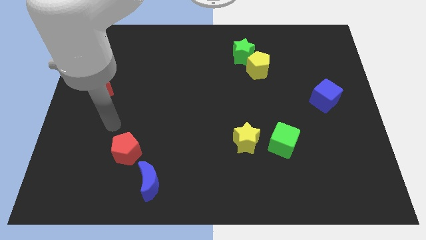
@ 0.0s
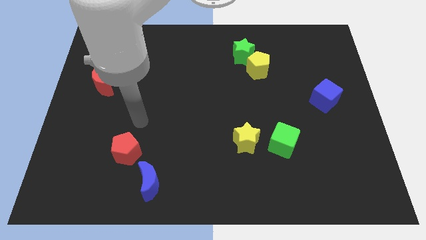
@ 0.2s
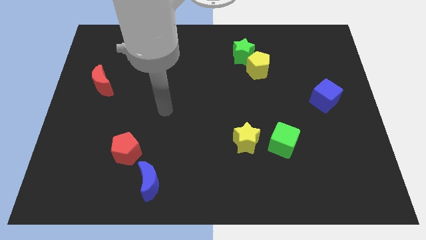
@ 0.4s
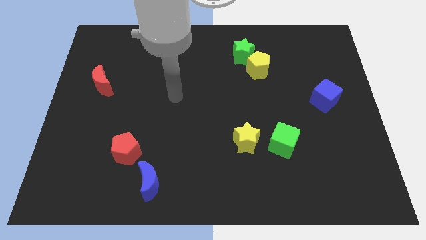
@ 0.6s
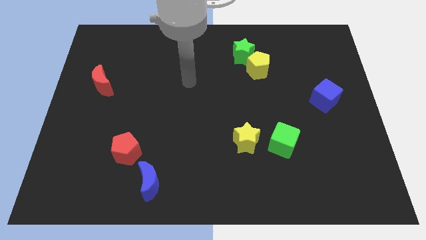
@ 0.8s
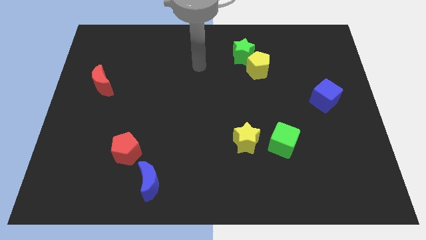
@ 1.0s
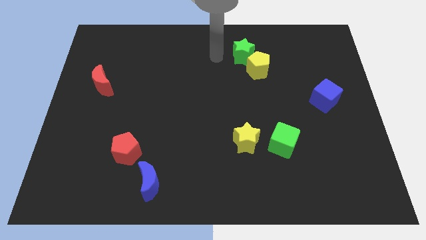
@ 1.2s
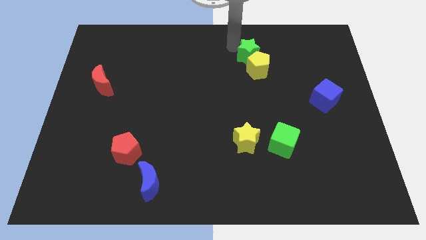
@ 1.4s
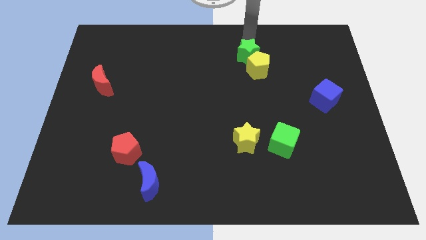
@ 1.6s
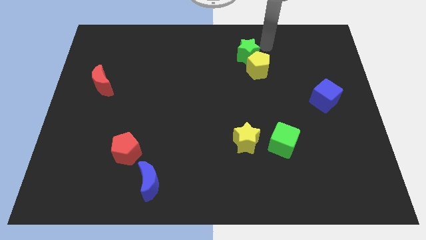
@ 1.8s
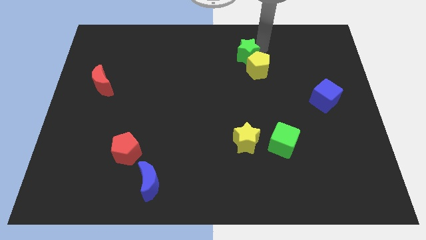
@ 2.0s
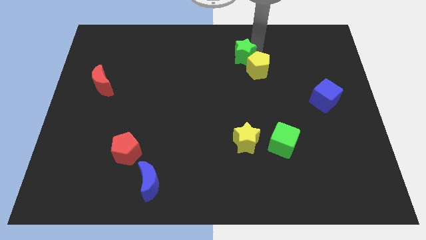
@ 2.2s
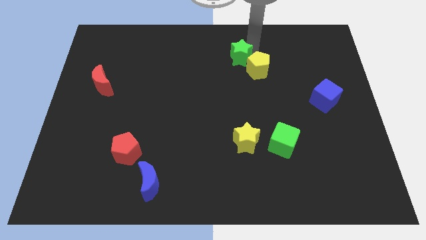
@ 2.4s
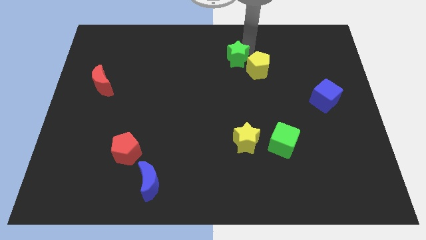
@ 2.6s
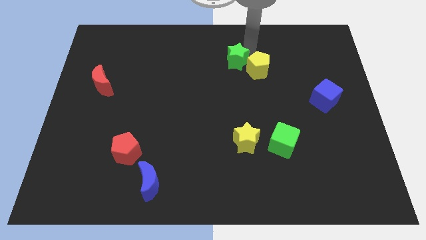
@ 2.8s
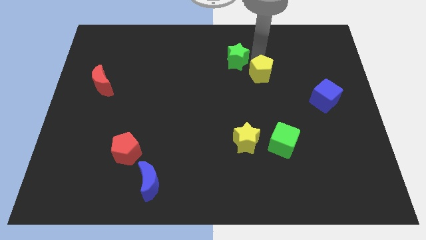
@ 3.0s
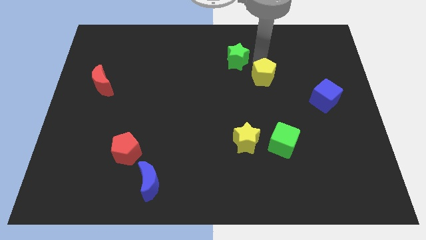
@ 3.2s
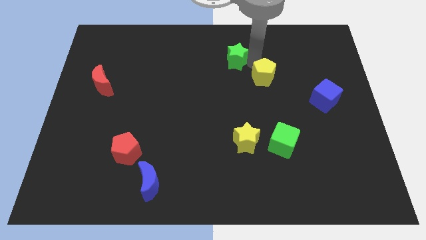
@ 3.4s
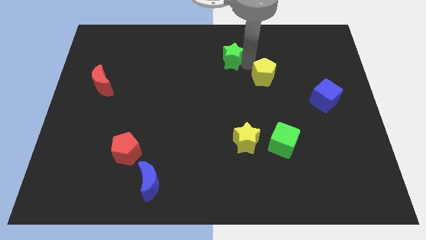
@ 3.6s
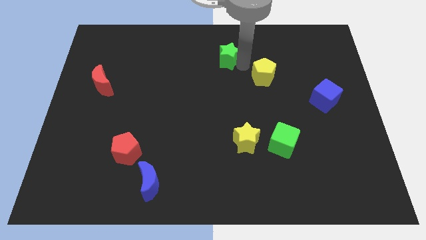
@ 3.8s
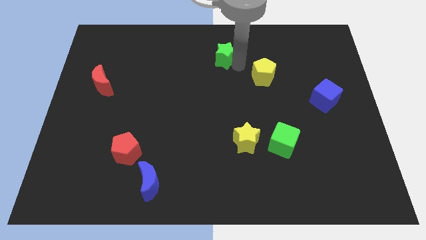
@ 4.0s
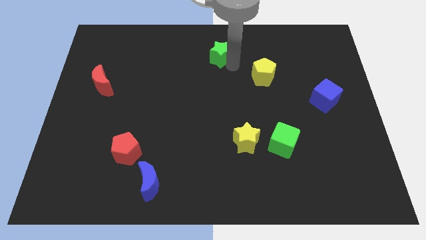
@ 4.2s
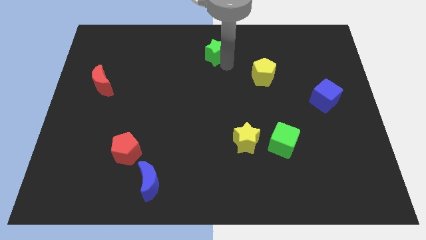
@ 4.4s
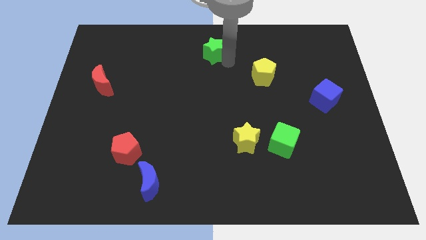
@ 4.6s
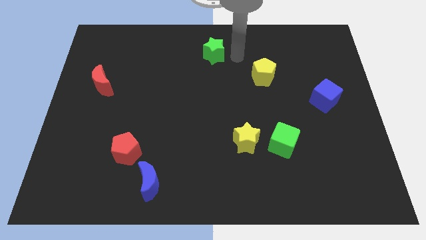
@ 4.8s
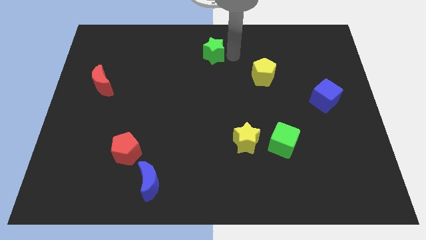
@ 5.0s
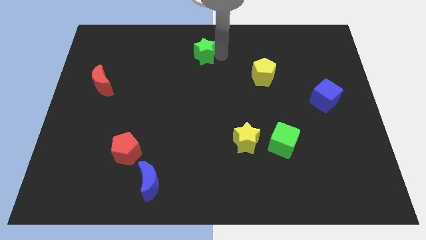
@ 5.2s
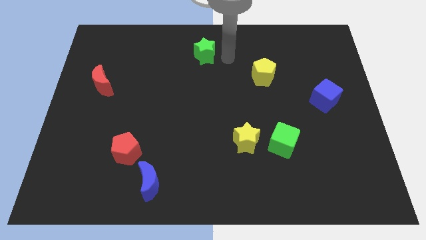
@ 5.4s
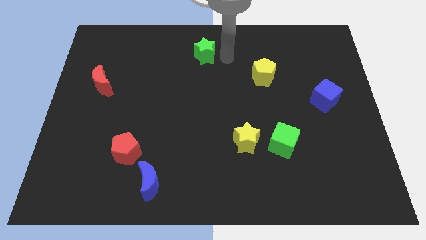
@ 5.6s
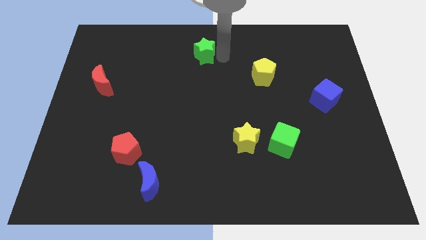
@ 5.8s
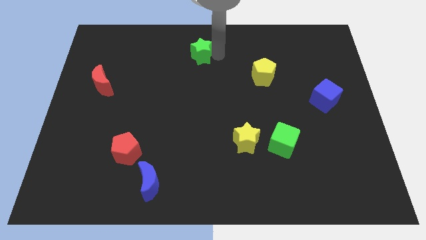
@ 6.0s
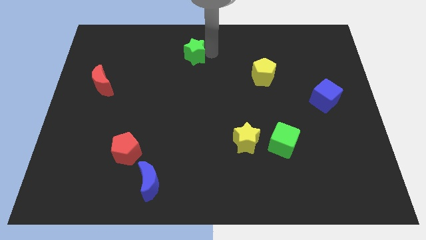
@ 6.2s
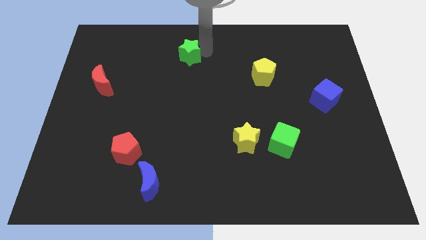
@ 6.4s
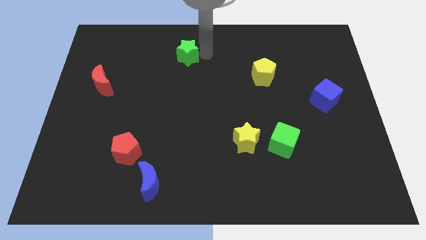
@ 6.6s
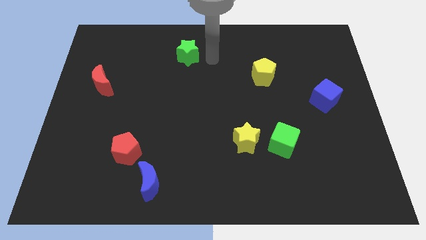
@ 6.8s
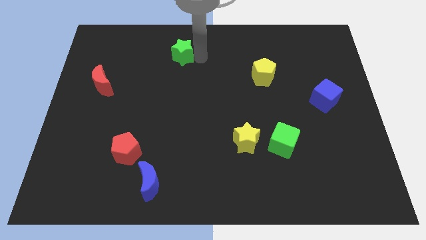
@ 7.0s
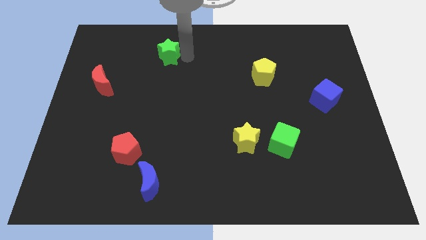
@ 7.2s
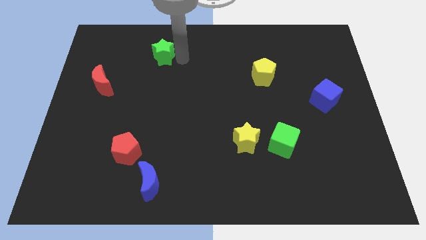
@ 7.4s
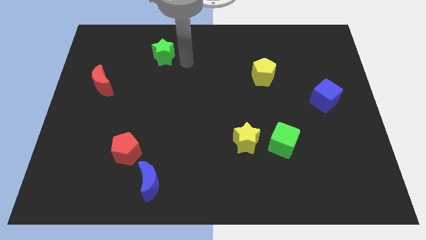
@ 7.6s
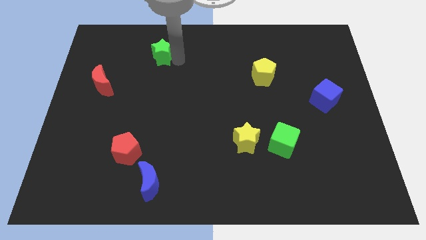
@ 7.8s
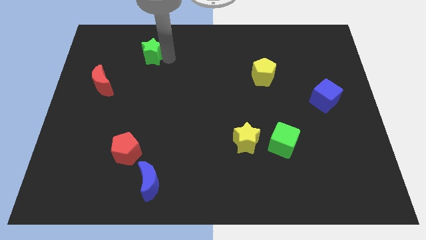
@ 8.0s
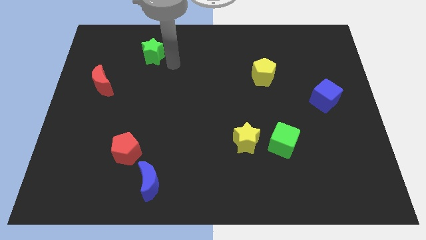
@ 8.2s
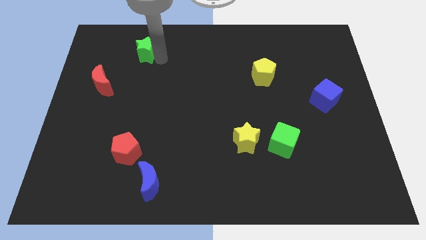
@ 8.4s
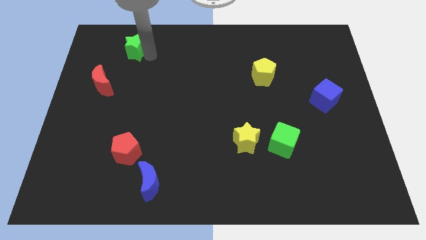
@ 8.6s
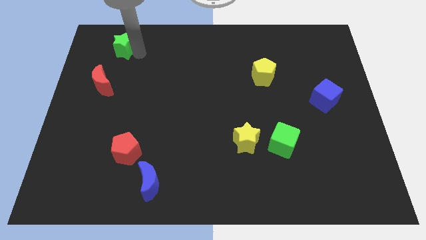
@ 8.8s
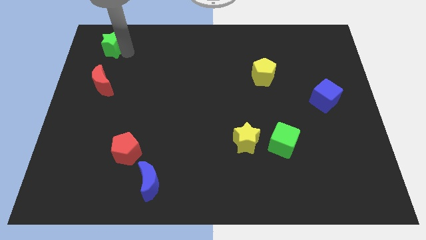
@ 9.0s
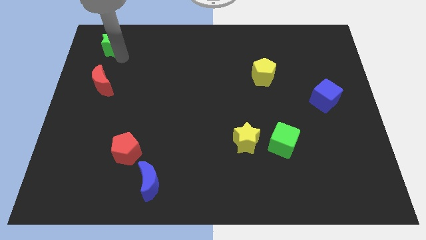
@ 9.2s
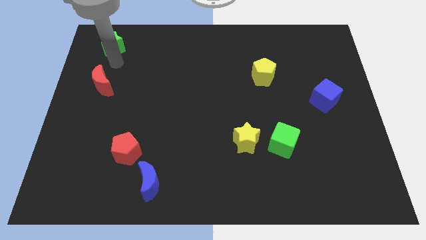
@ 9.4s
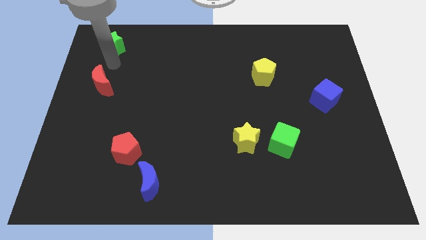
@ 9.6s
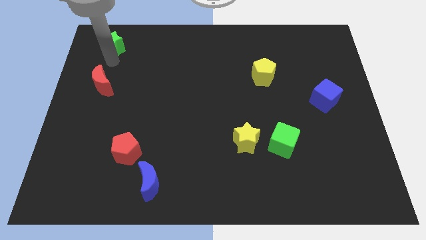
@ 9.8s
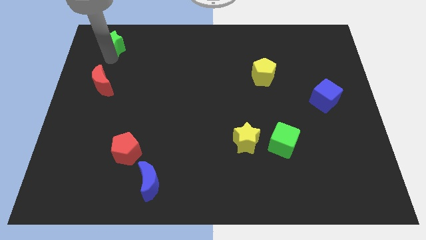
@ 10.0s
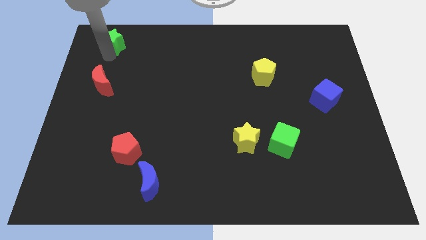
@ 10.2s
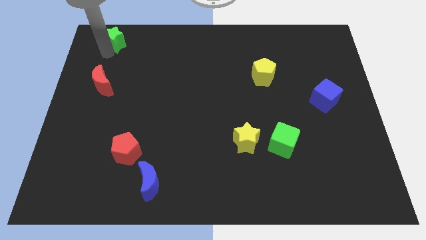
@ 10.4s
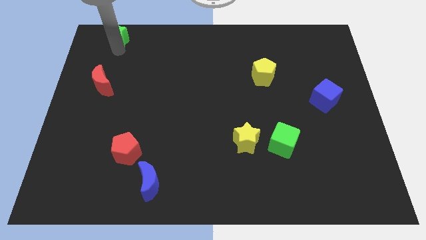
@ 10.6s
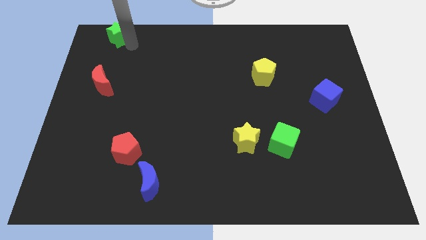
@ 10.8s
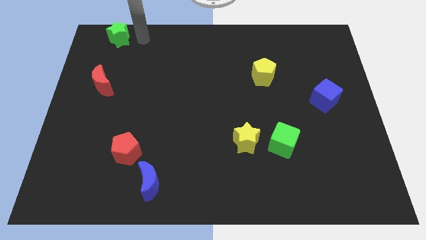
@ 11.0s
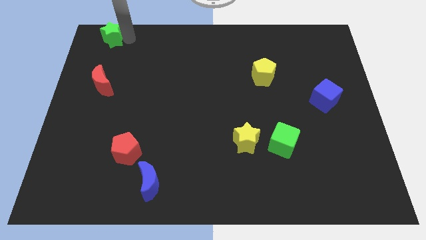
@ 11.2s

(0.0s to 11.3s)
slide the green star to the upper left corner

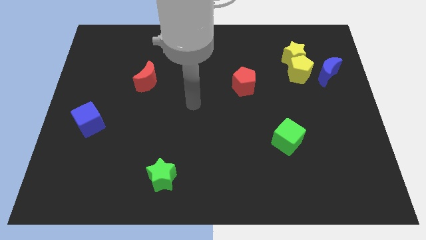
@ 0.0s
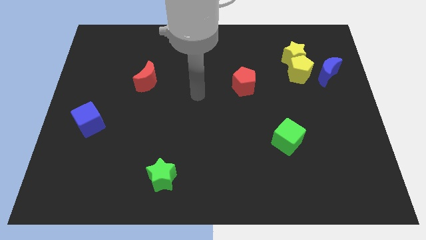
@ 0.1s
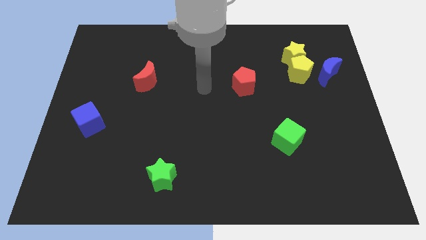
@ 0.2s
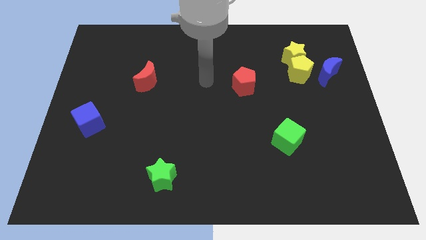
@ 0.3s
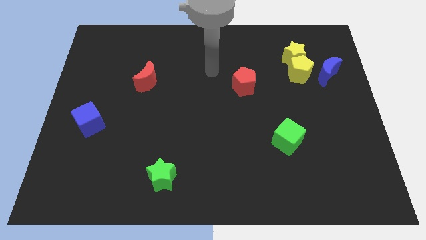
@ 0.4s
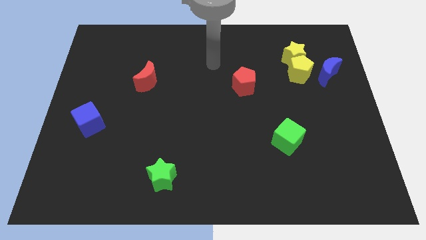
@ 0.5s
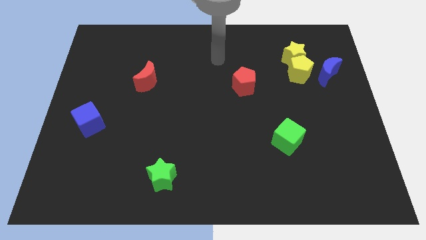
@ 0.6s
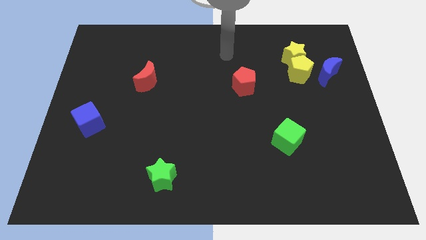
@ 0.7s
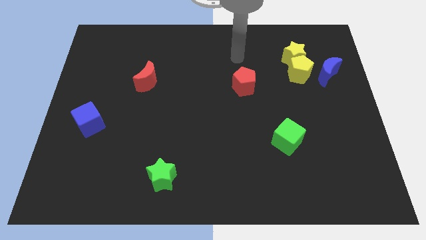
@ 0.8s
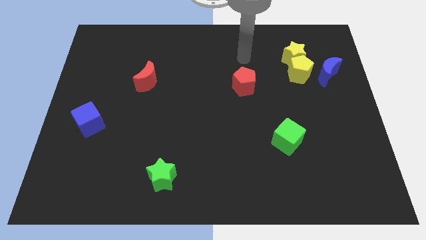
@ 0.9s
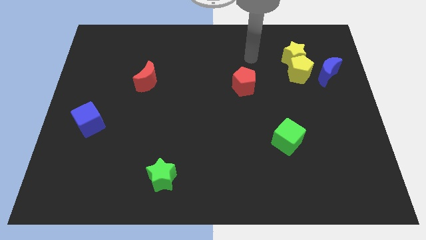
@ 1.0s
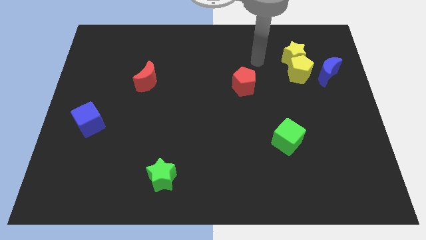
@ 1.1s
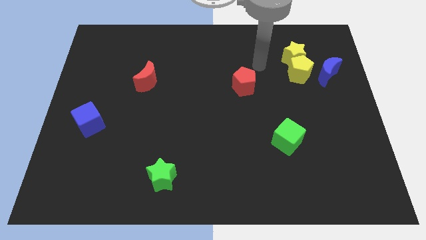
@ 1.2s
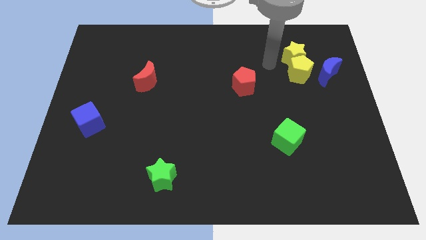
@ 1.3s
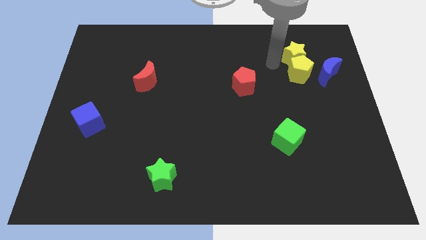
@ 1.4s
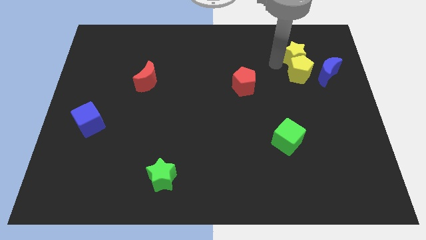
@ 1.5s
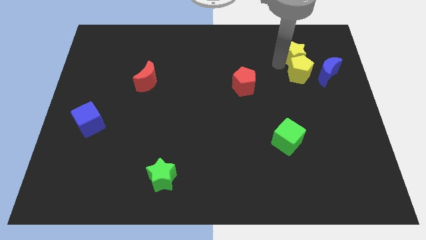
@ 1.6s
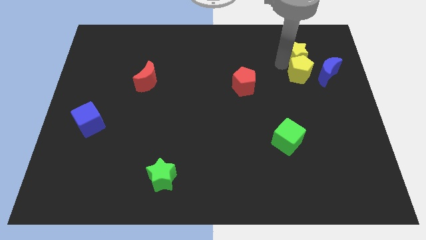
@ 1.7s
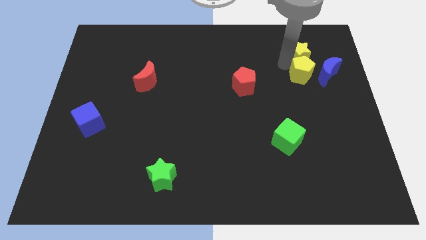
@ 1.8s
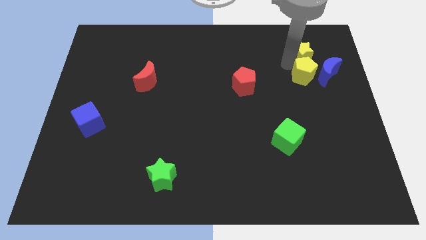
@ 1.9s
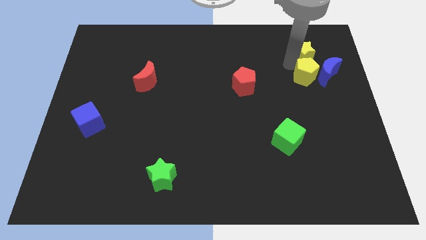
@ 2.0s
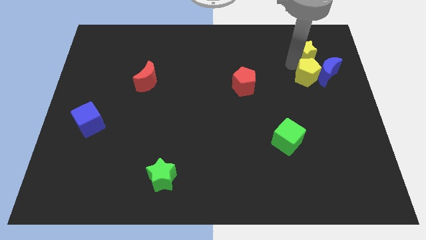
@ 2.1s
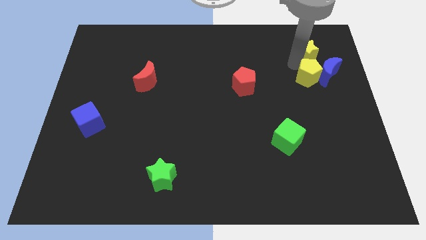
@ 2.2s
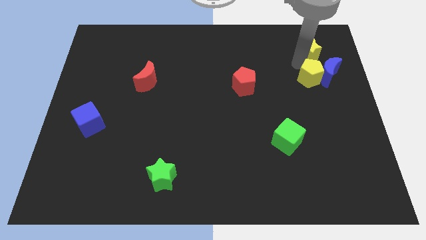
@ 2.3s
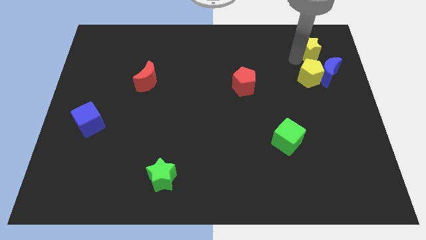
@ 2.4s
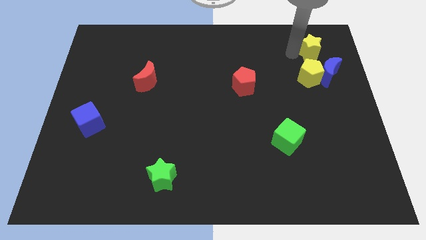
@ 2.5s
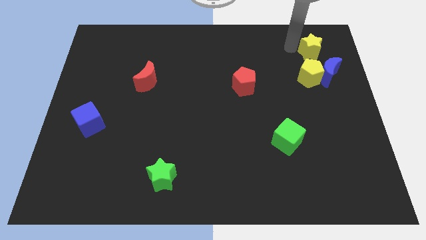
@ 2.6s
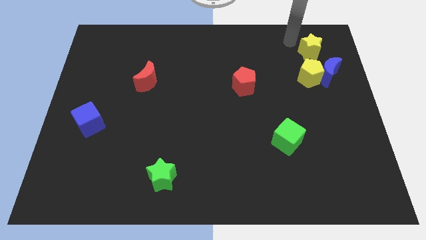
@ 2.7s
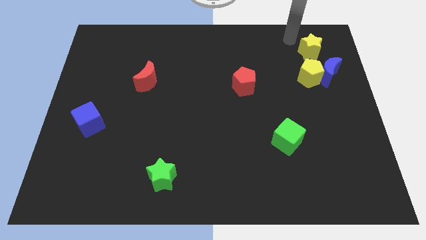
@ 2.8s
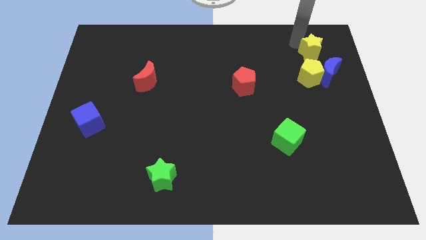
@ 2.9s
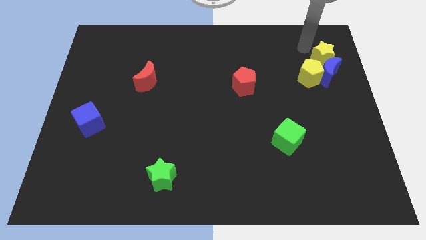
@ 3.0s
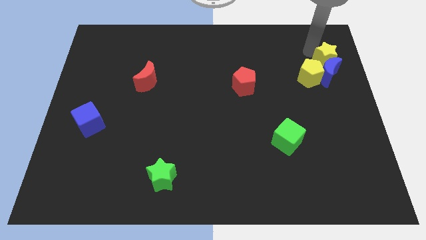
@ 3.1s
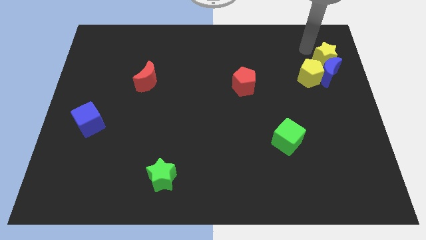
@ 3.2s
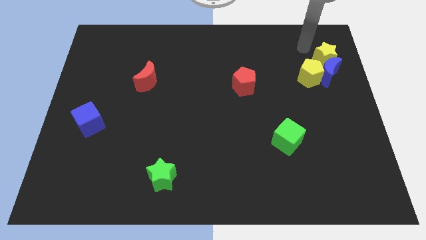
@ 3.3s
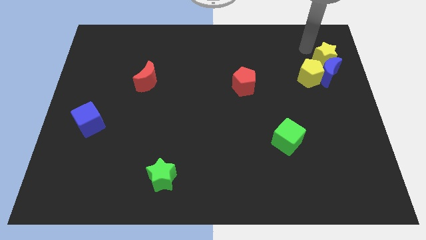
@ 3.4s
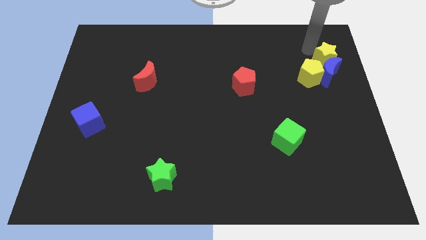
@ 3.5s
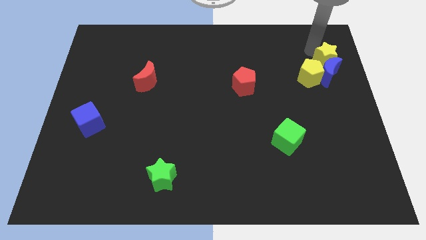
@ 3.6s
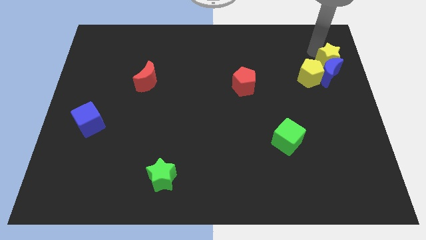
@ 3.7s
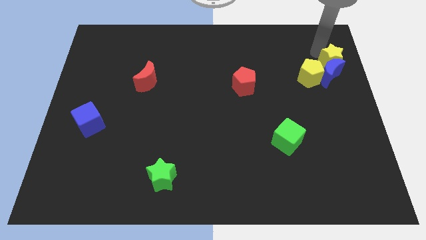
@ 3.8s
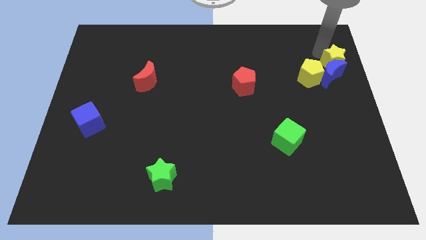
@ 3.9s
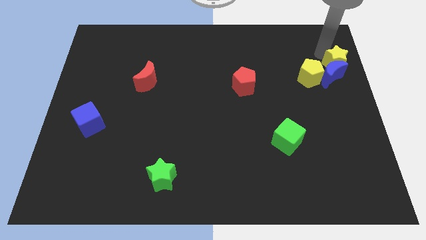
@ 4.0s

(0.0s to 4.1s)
slide the yellow star to the right side
